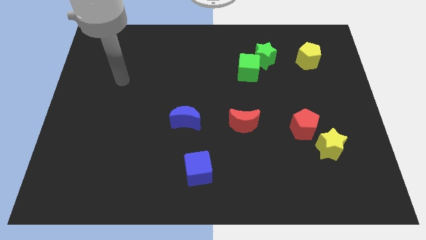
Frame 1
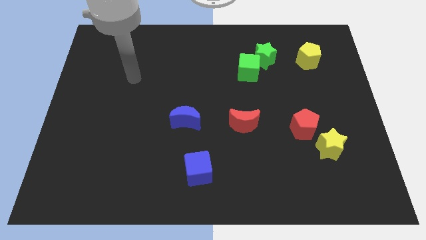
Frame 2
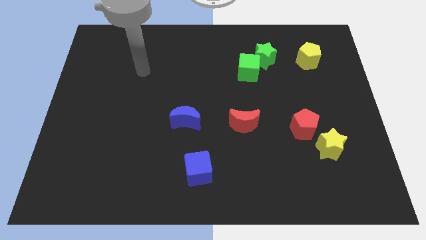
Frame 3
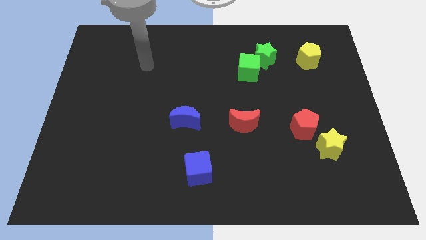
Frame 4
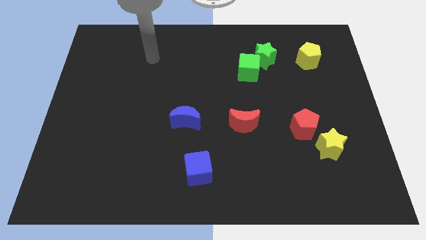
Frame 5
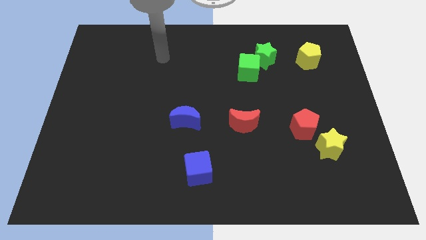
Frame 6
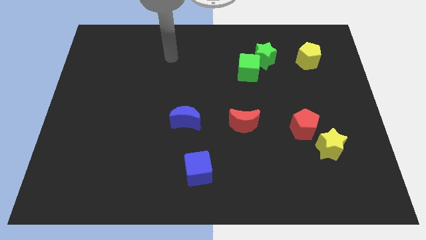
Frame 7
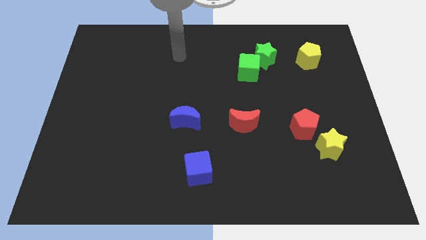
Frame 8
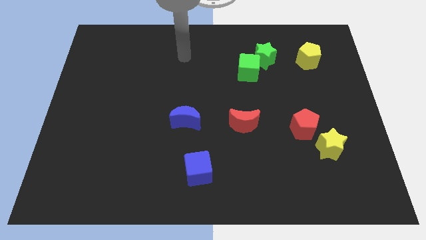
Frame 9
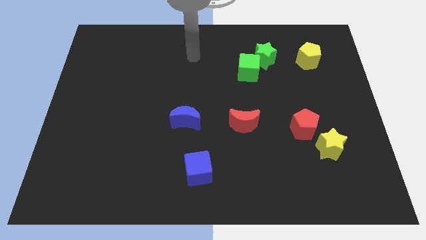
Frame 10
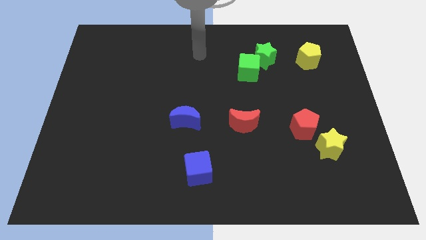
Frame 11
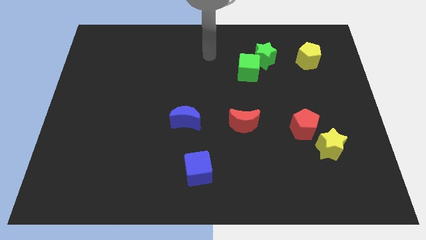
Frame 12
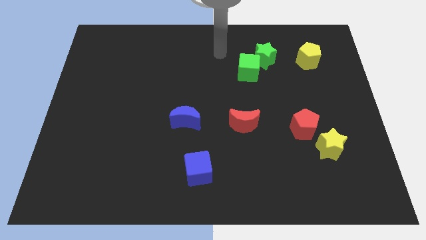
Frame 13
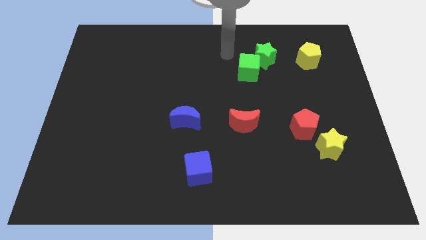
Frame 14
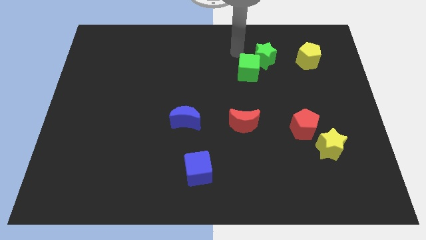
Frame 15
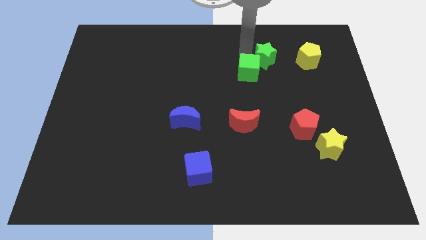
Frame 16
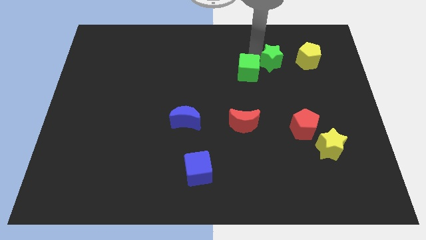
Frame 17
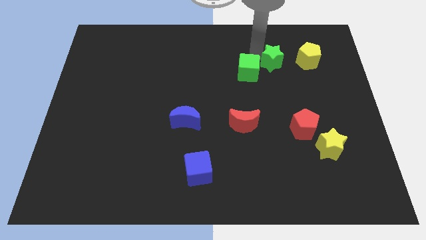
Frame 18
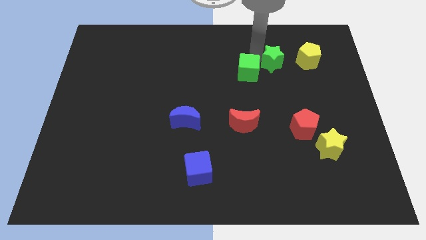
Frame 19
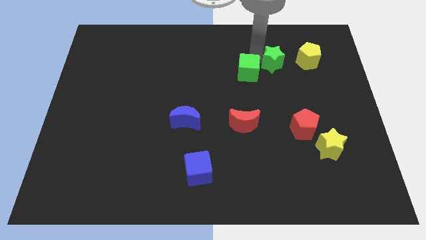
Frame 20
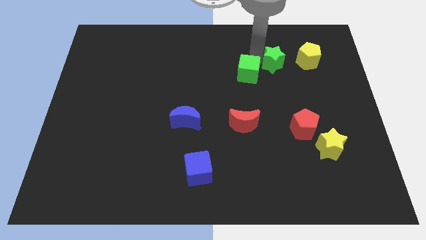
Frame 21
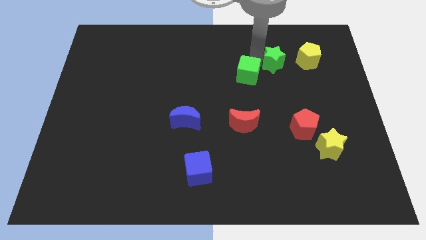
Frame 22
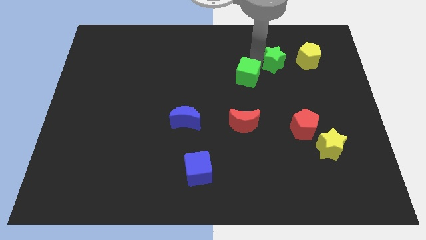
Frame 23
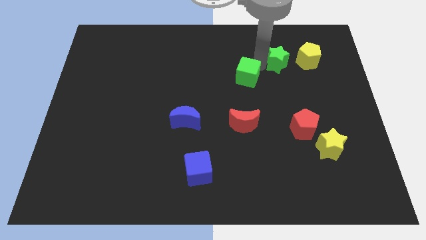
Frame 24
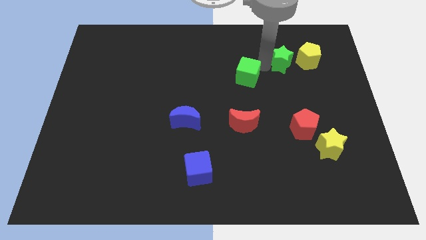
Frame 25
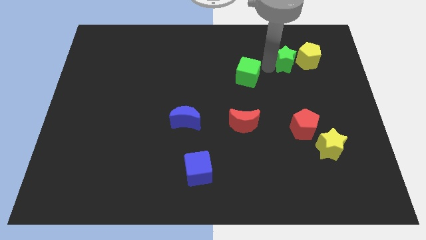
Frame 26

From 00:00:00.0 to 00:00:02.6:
move the green cube away from the green star

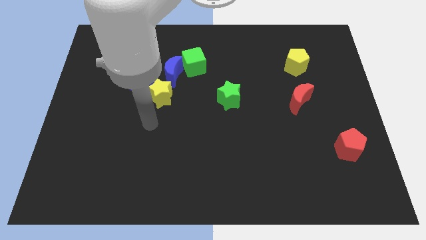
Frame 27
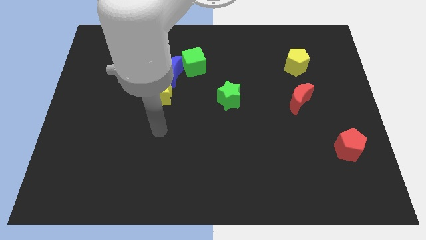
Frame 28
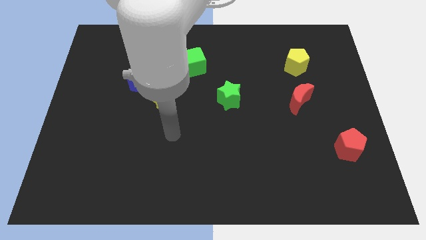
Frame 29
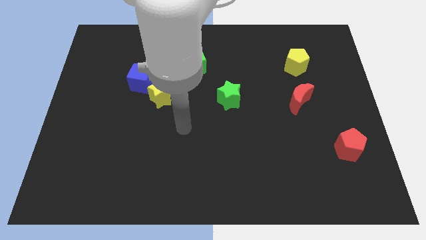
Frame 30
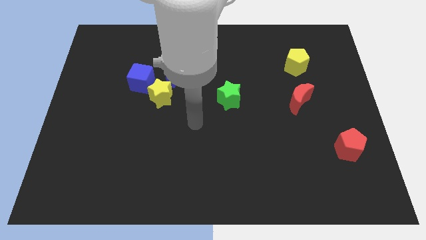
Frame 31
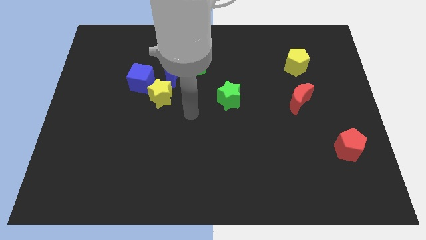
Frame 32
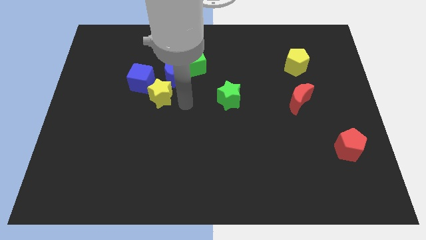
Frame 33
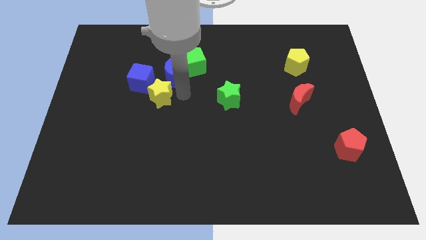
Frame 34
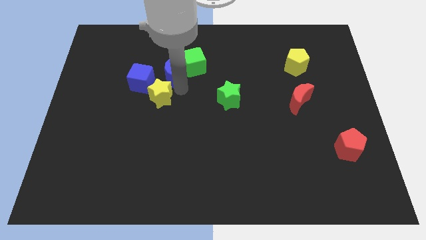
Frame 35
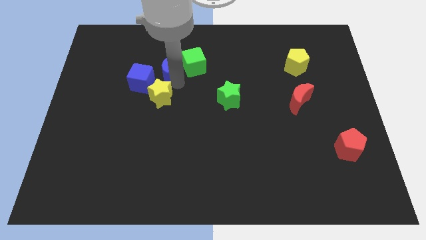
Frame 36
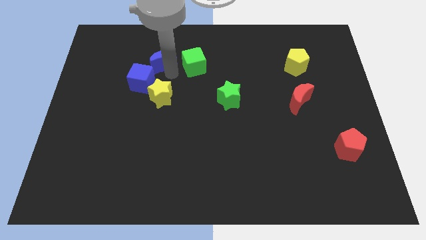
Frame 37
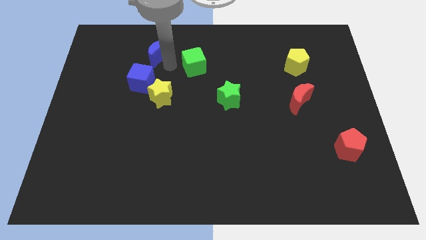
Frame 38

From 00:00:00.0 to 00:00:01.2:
move the green cube away from the blue moon

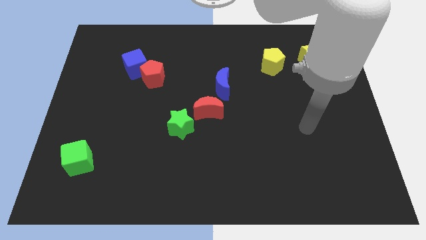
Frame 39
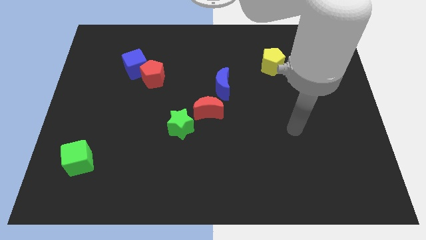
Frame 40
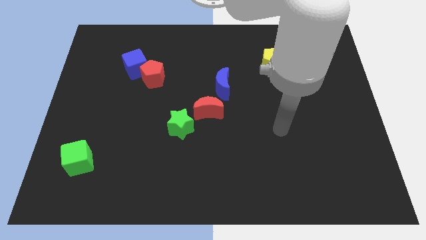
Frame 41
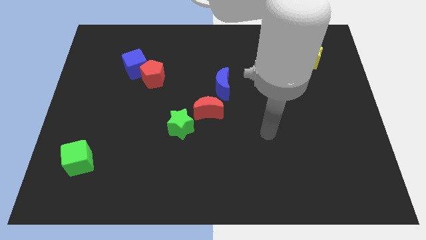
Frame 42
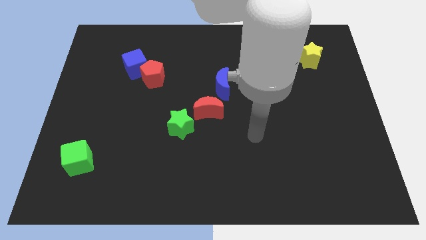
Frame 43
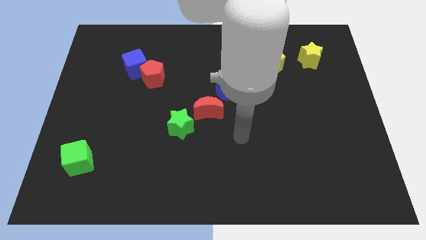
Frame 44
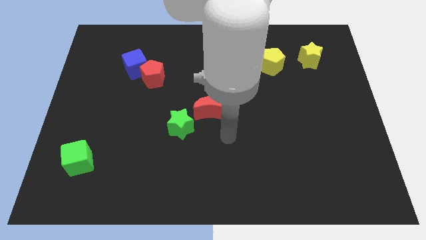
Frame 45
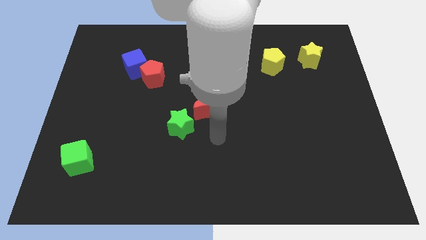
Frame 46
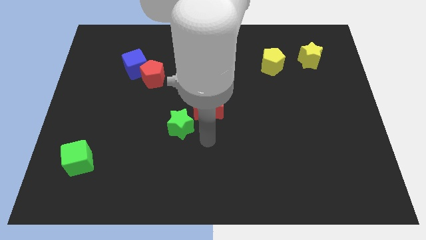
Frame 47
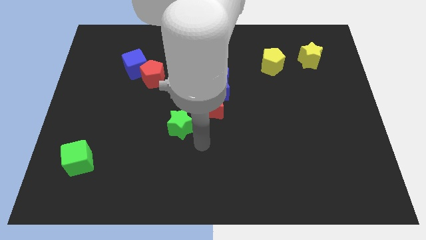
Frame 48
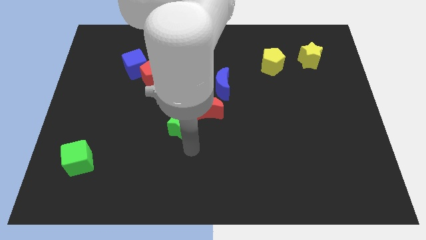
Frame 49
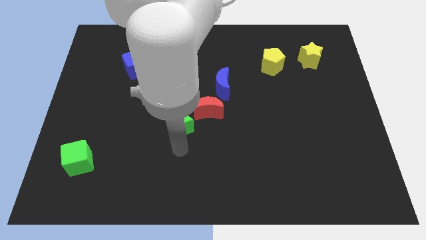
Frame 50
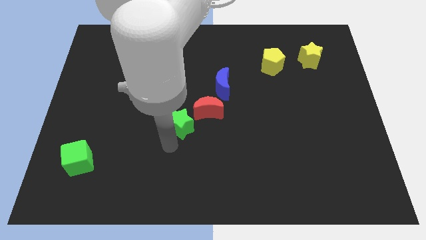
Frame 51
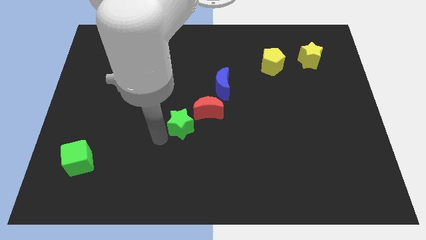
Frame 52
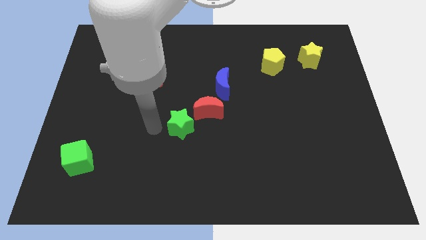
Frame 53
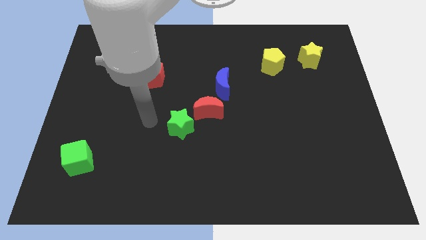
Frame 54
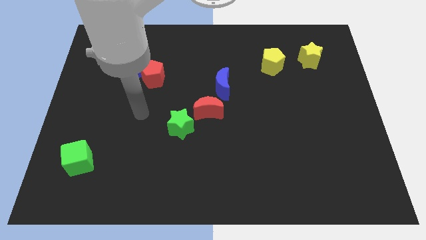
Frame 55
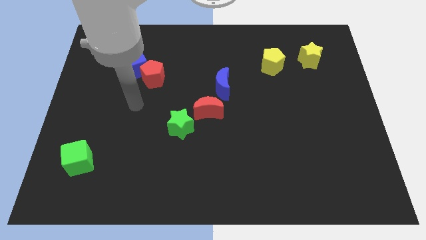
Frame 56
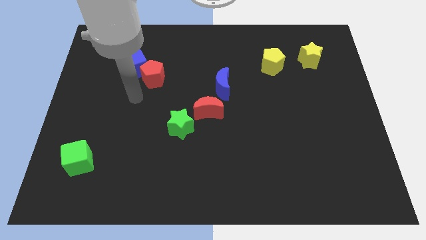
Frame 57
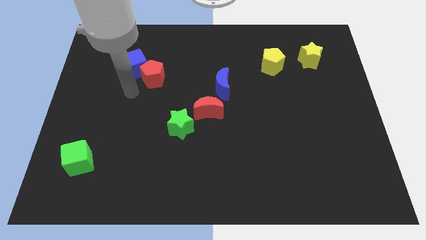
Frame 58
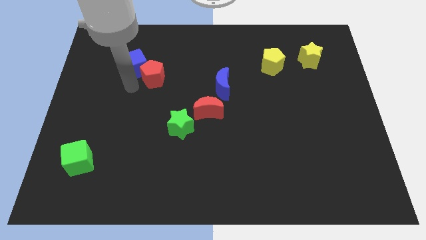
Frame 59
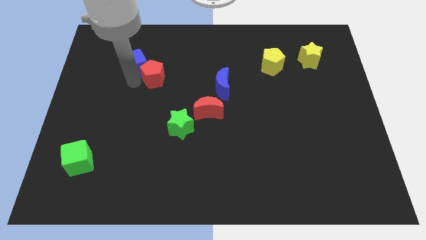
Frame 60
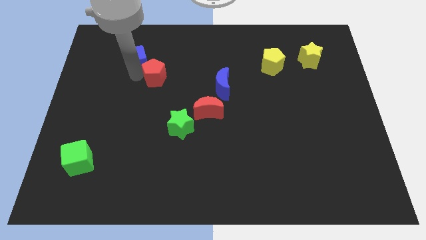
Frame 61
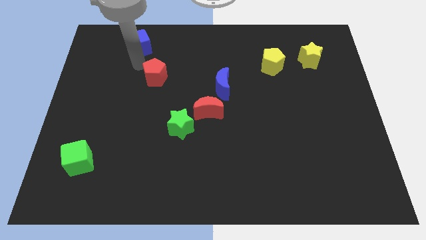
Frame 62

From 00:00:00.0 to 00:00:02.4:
separate the red pentagon from the blue cube

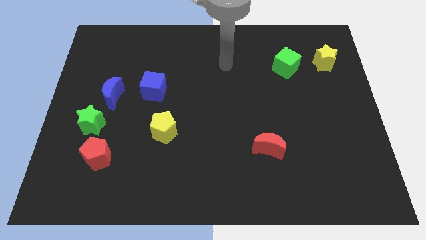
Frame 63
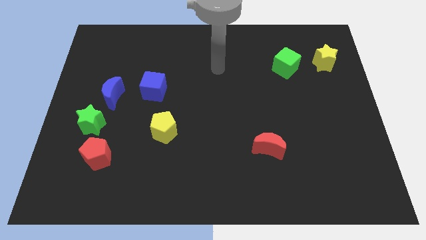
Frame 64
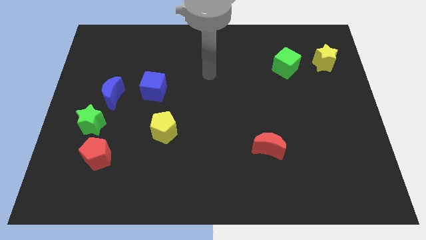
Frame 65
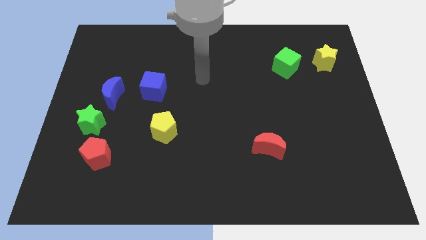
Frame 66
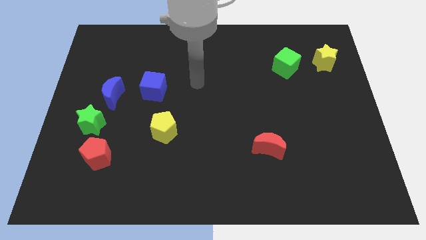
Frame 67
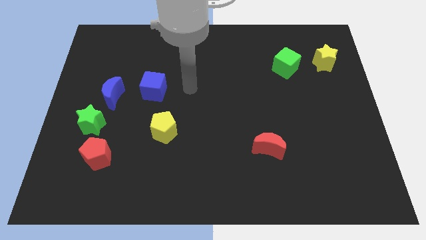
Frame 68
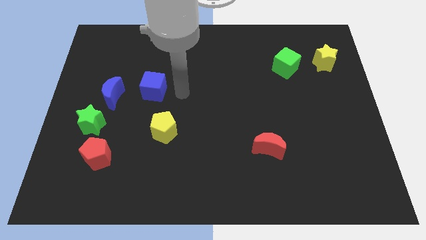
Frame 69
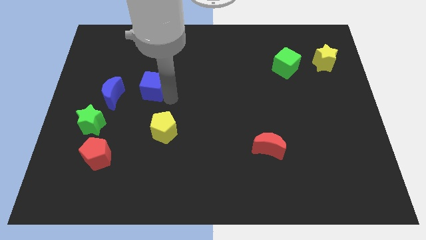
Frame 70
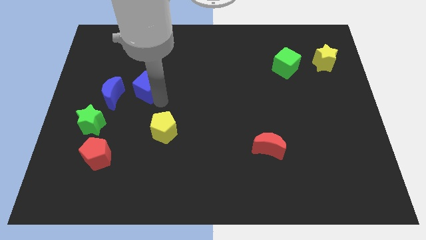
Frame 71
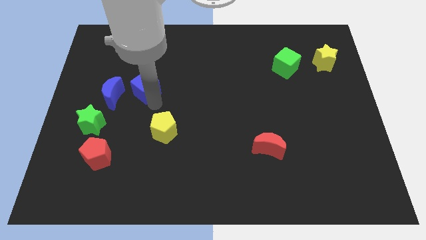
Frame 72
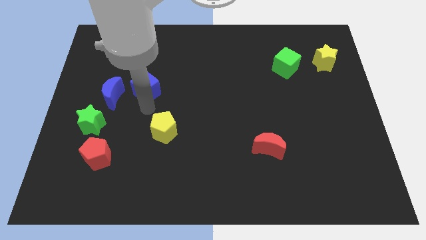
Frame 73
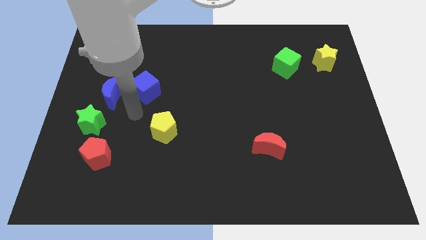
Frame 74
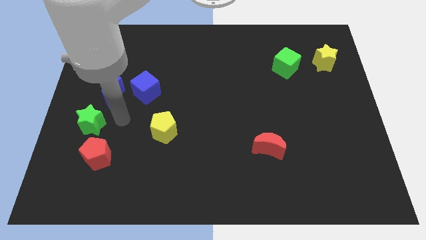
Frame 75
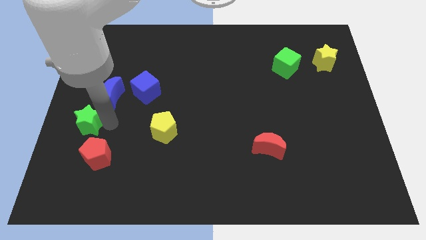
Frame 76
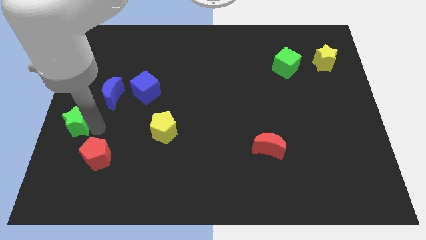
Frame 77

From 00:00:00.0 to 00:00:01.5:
pull the red pentagon apart from the green star

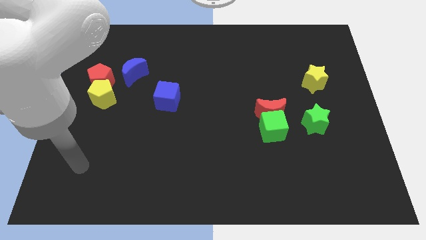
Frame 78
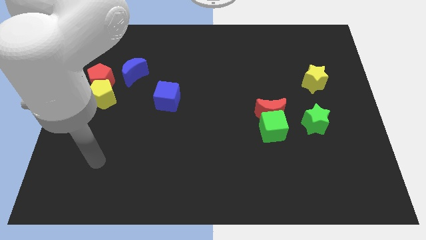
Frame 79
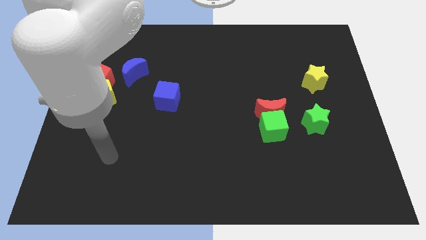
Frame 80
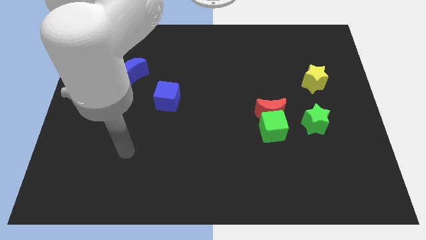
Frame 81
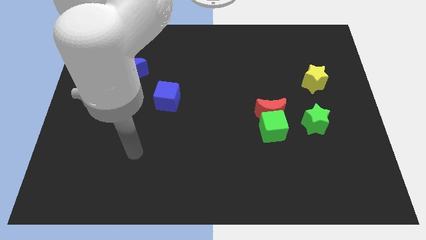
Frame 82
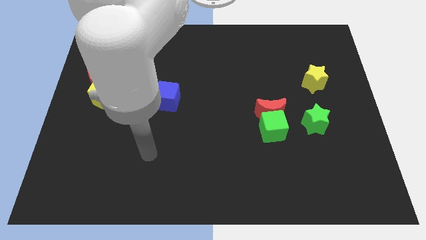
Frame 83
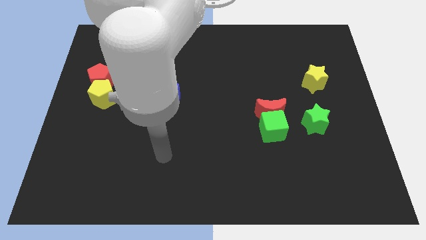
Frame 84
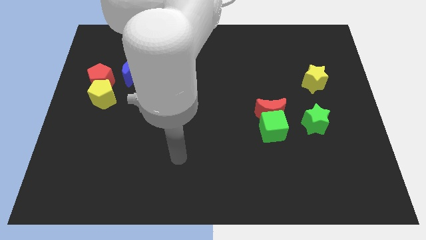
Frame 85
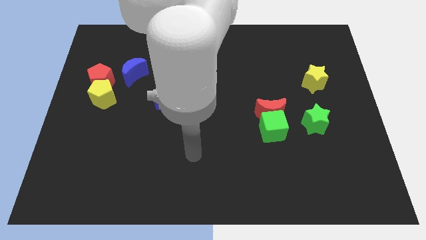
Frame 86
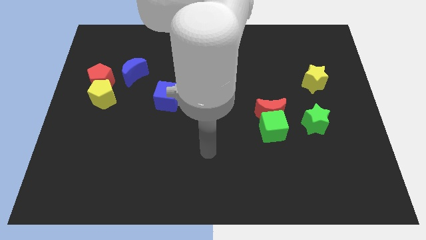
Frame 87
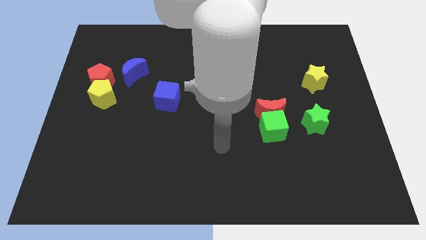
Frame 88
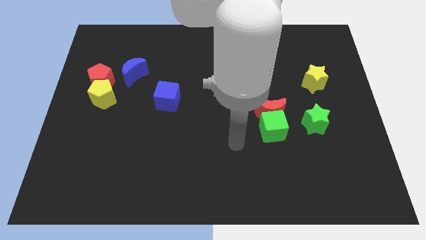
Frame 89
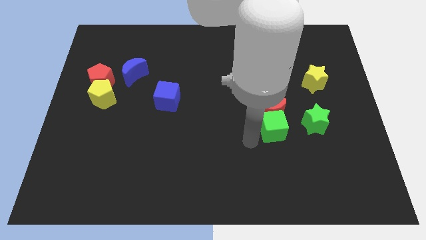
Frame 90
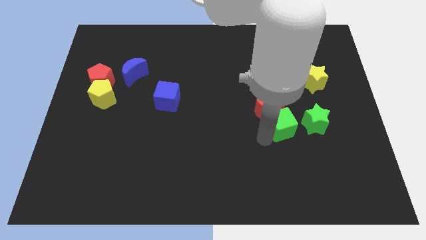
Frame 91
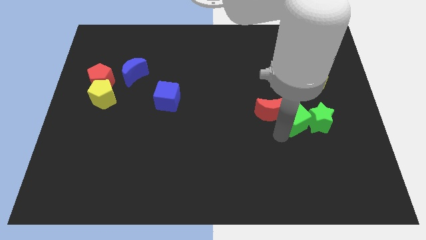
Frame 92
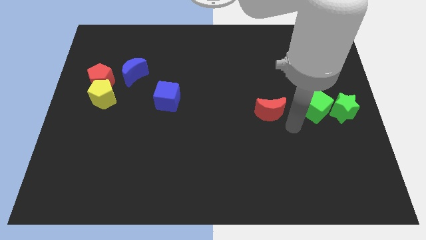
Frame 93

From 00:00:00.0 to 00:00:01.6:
pull the red moon apart from the green cube
